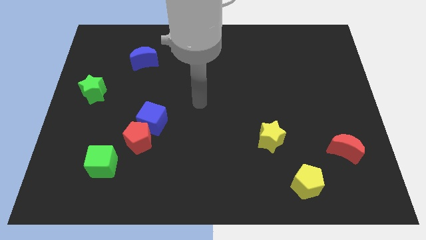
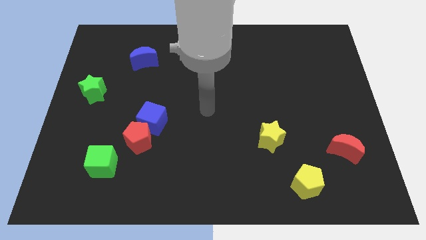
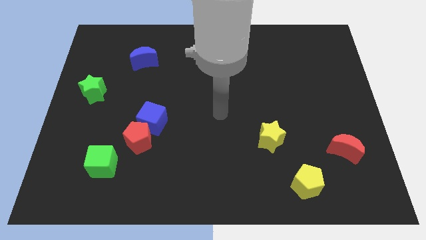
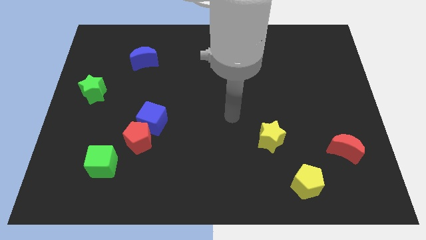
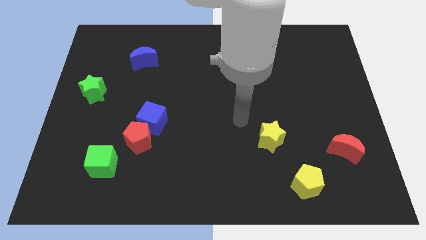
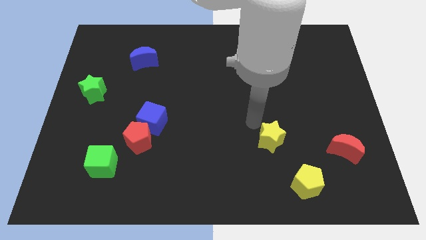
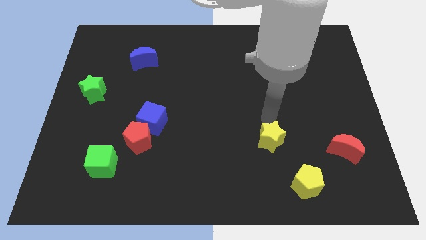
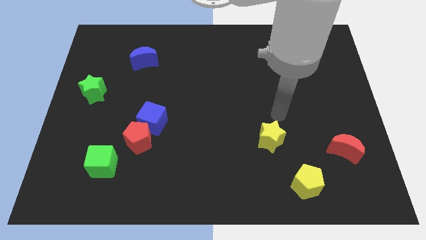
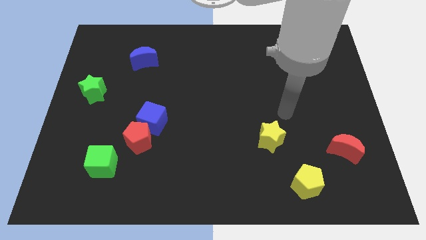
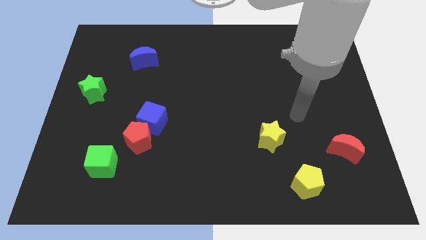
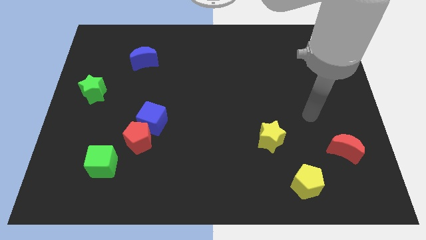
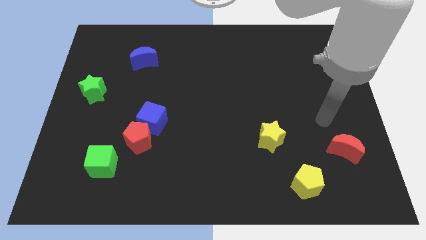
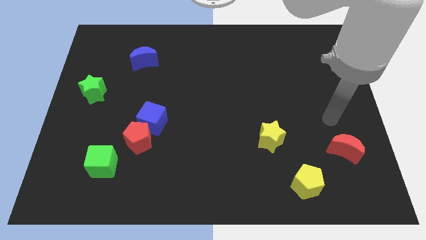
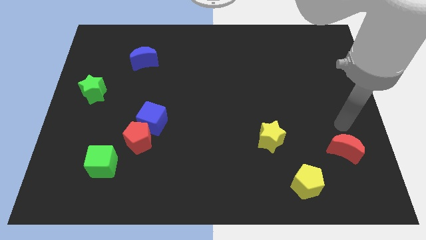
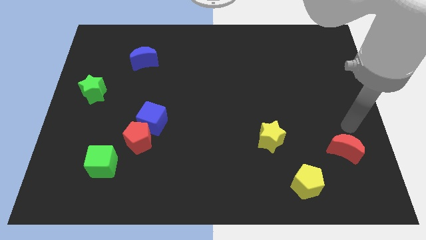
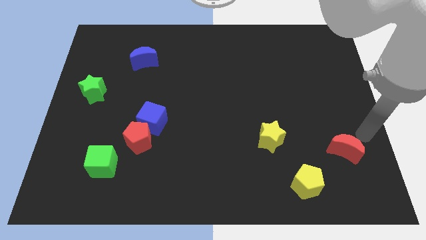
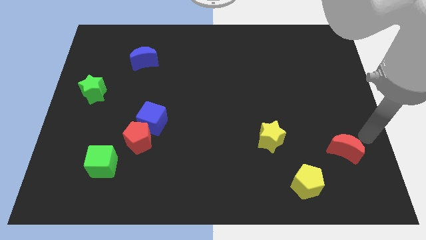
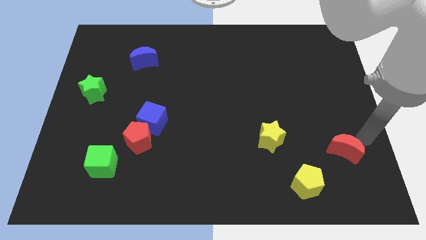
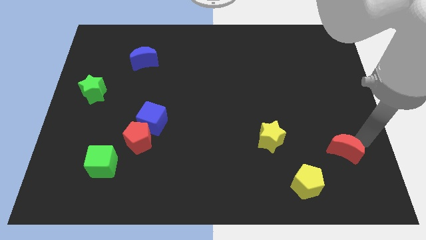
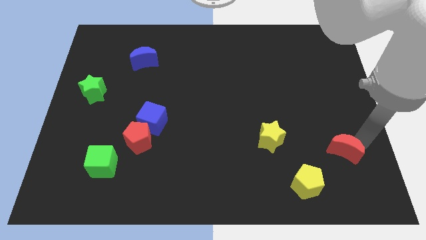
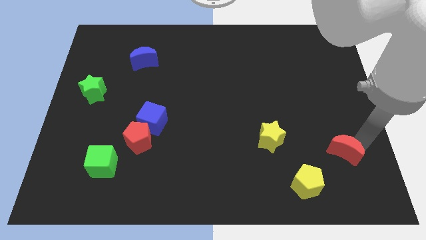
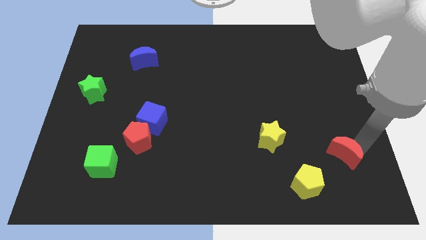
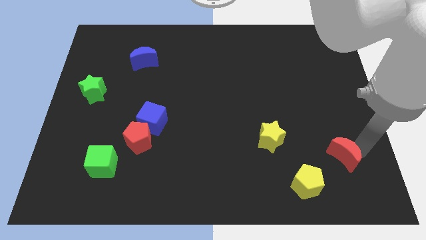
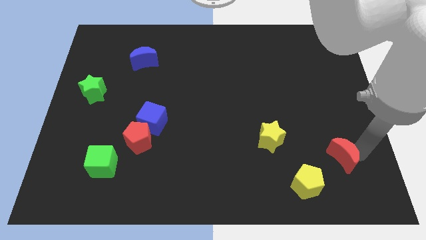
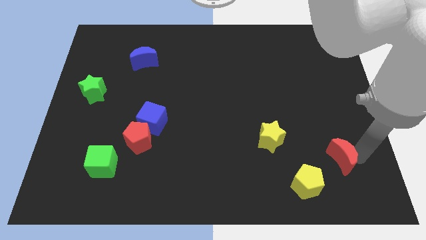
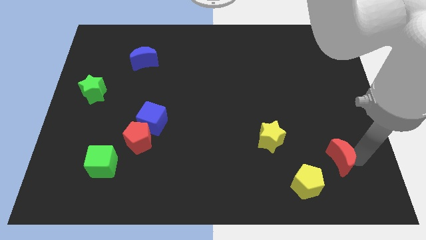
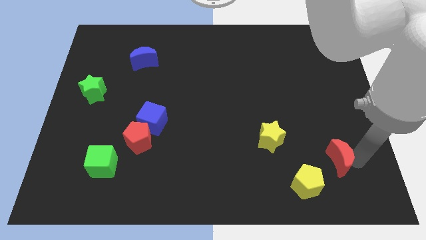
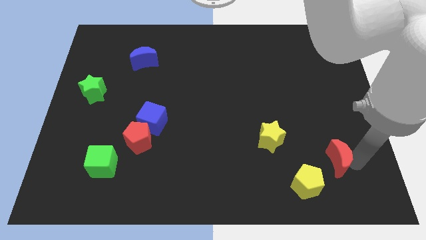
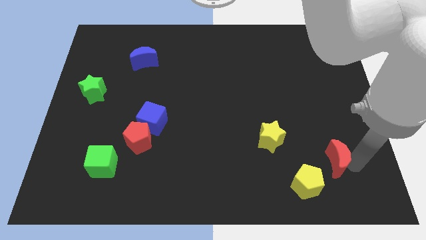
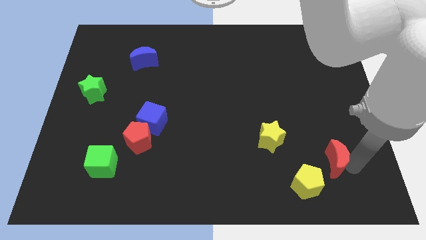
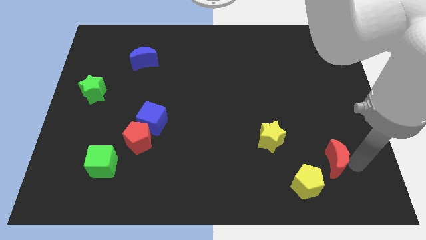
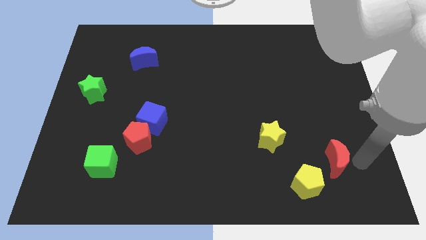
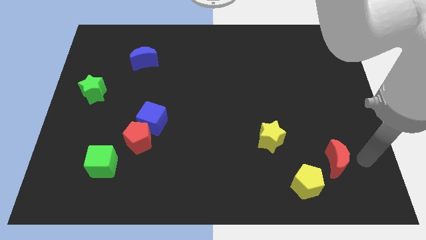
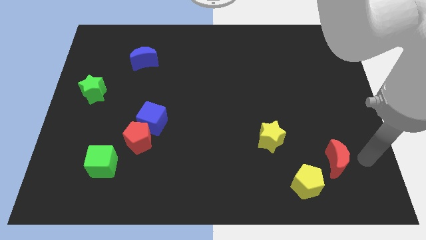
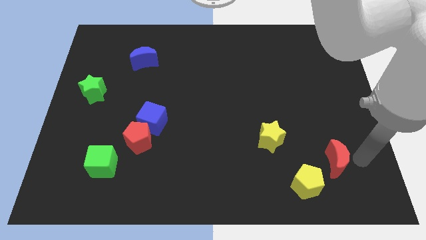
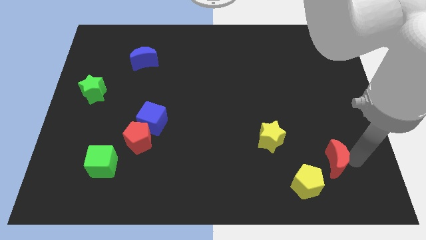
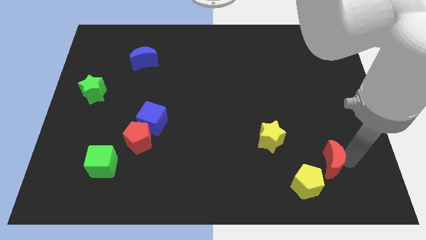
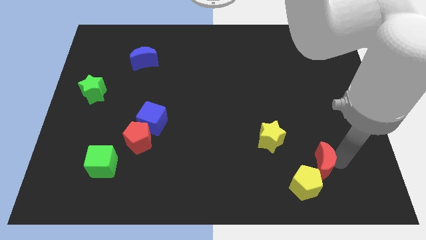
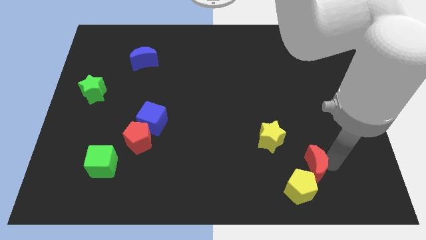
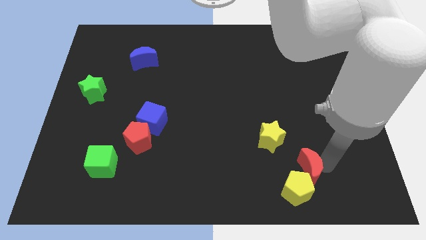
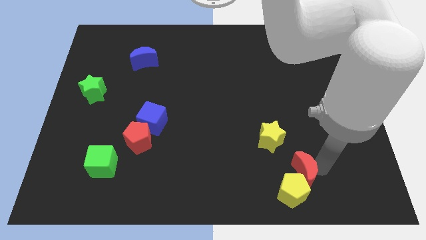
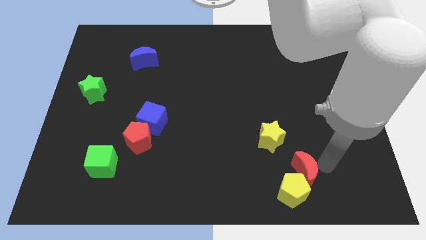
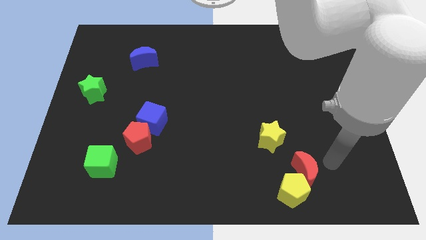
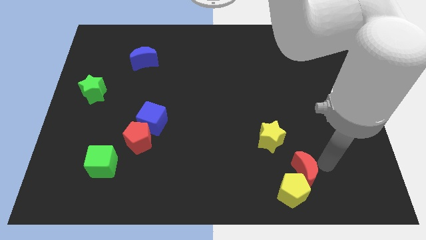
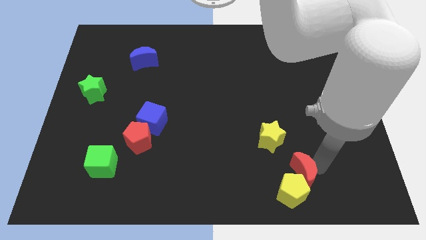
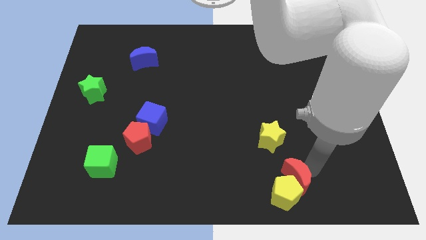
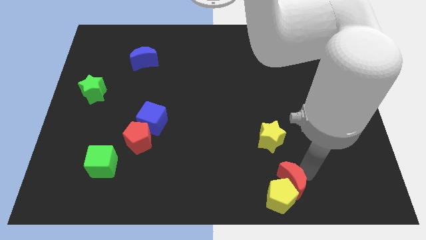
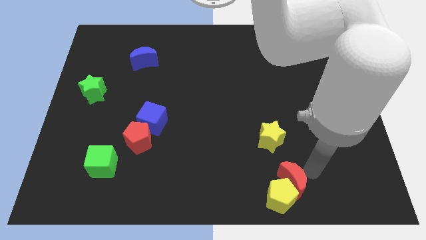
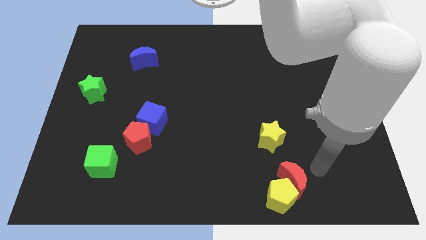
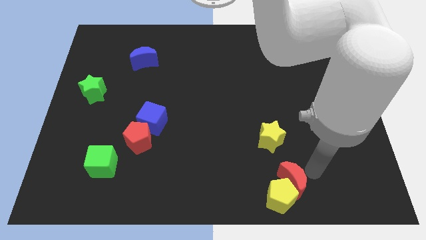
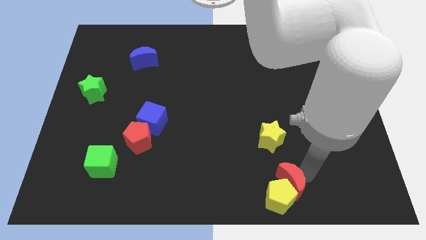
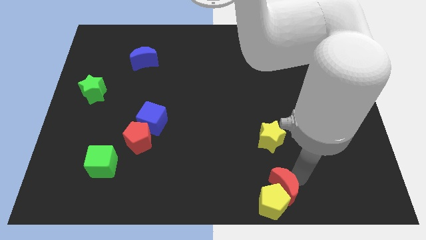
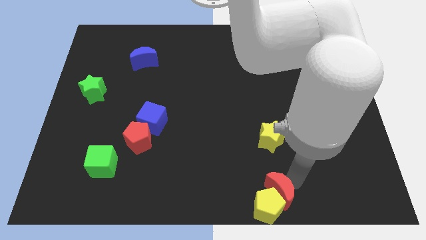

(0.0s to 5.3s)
move the red moon to the bottom

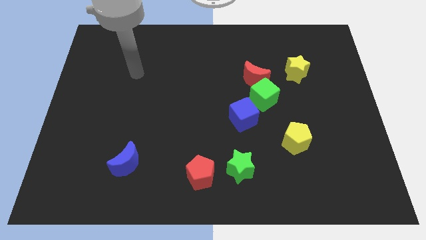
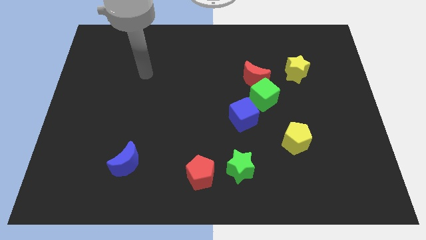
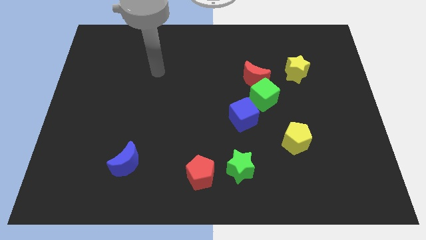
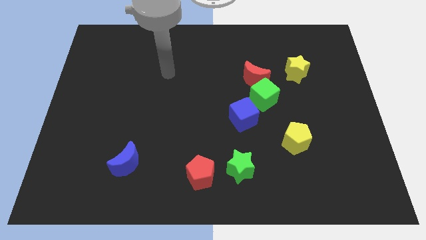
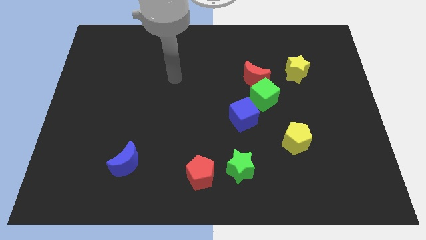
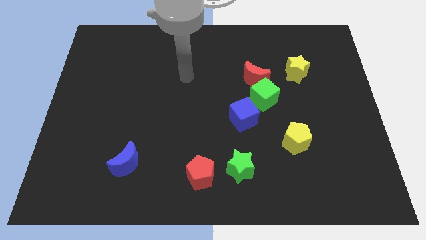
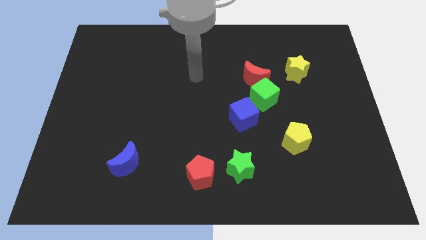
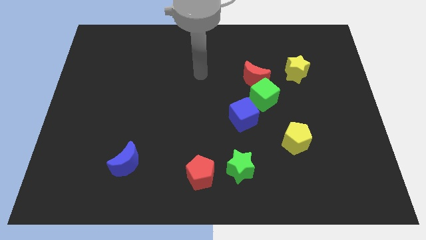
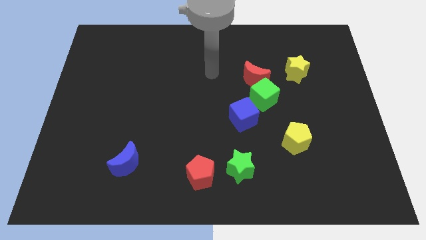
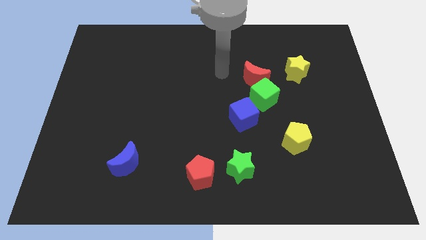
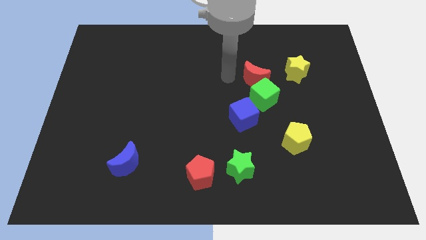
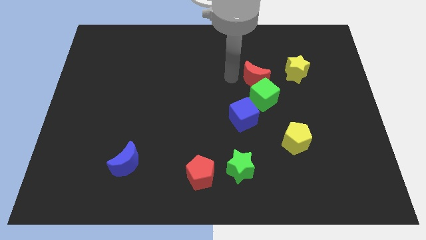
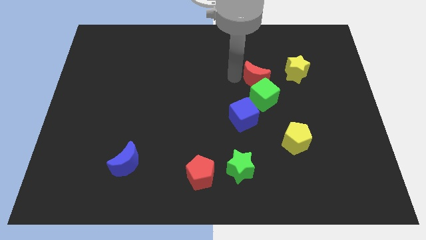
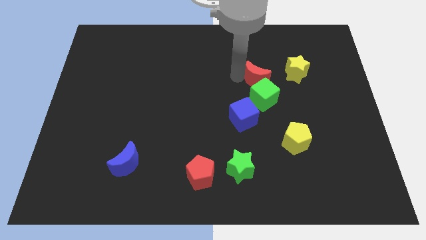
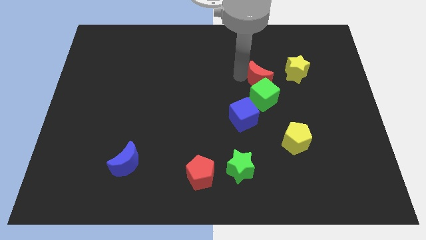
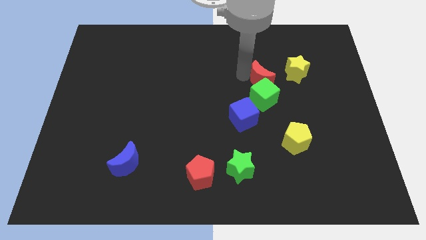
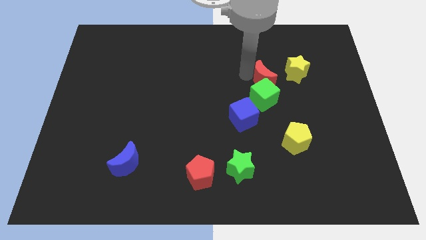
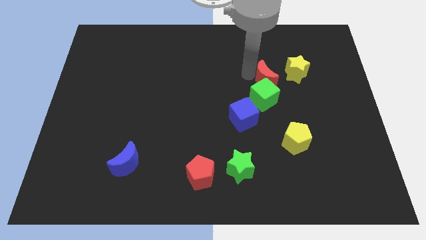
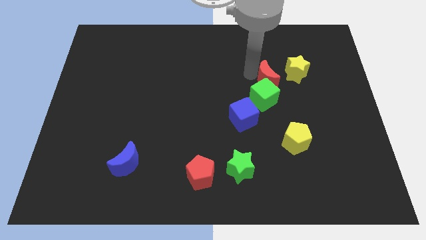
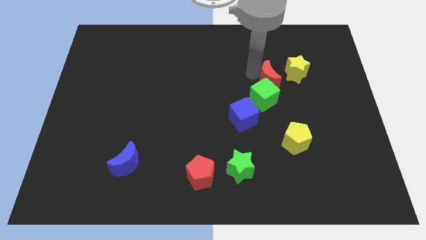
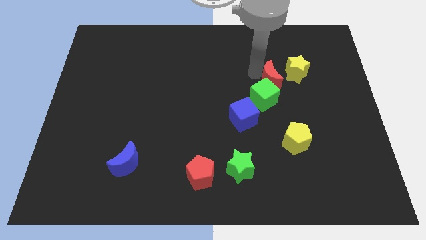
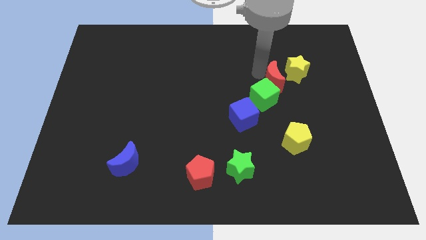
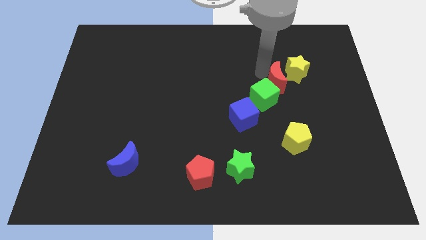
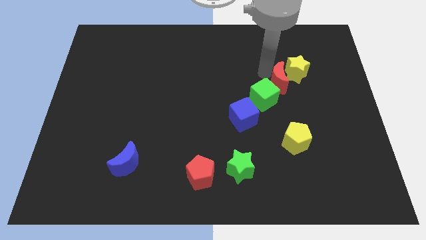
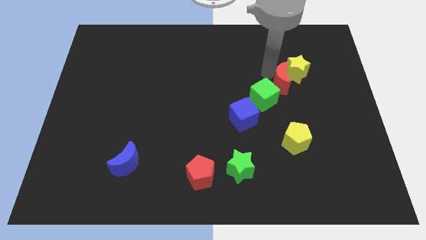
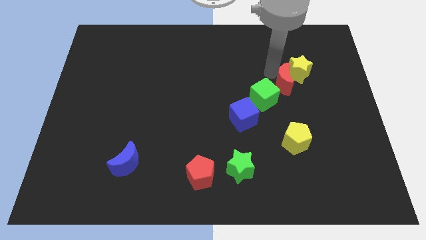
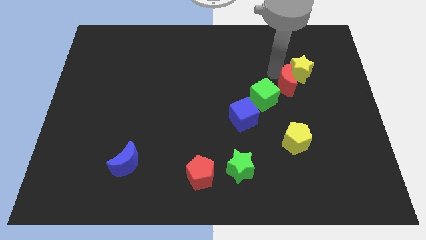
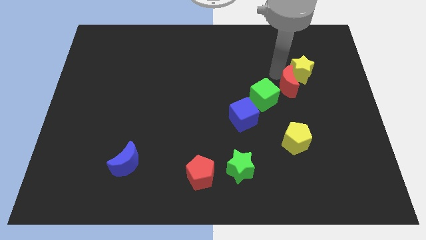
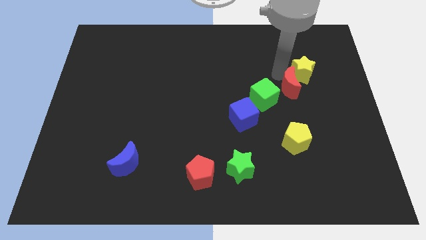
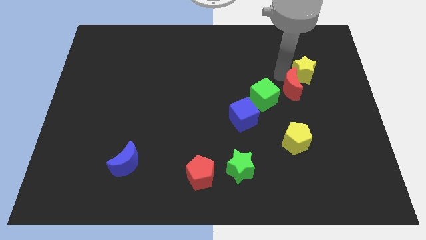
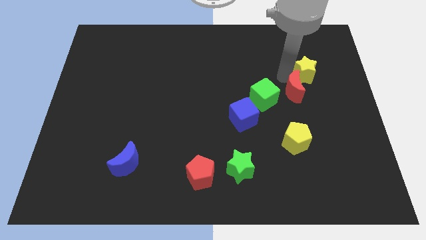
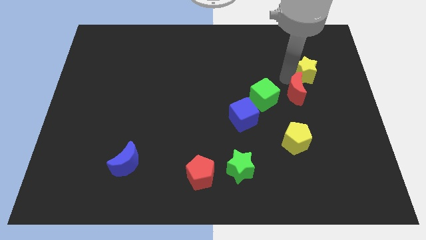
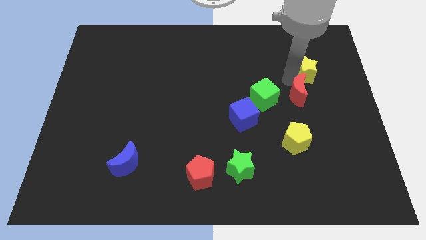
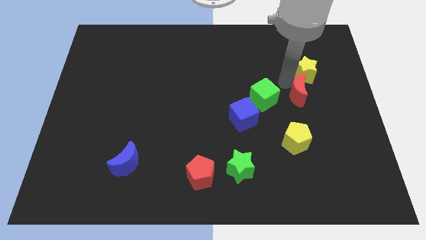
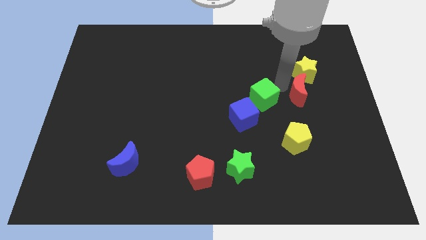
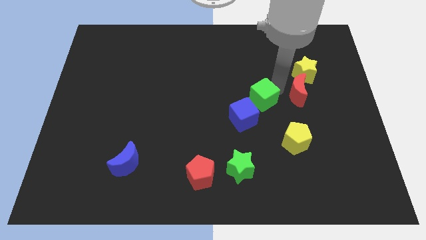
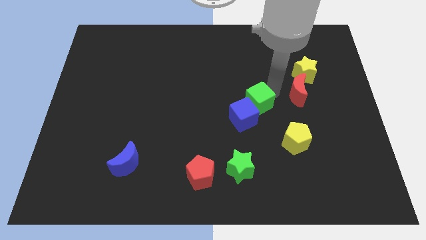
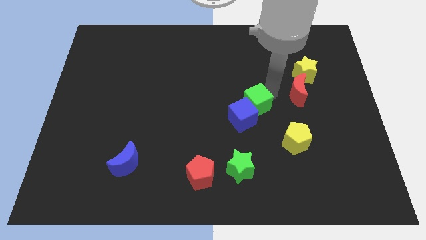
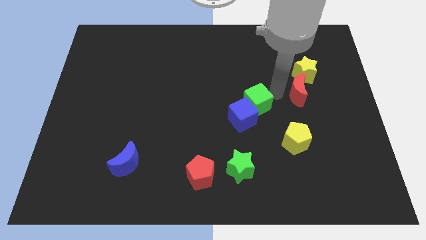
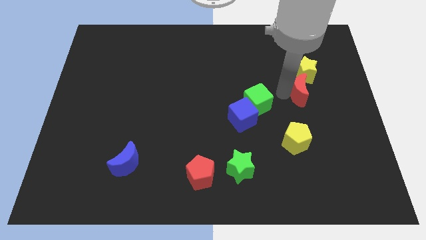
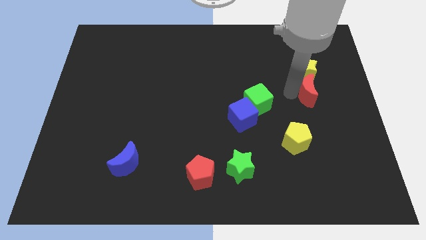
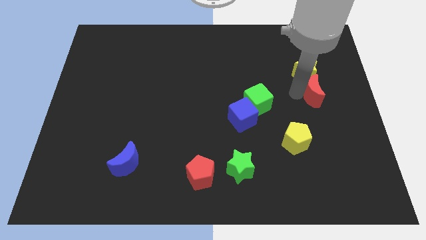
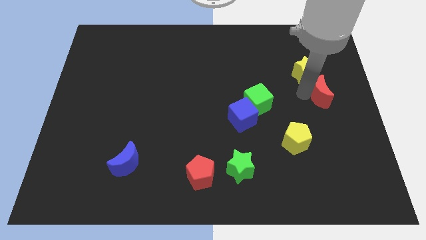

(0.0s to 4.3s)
slide the red moon to the right side
